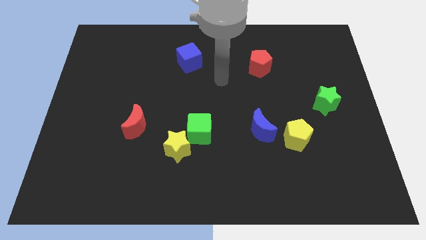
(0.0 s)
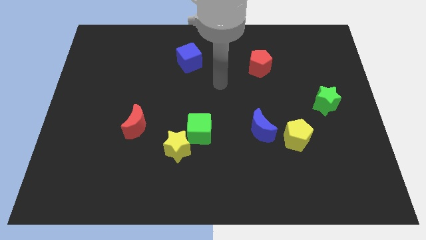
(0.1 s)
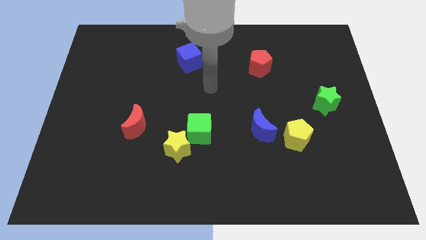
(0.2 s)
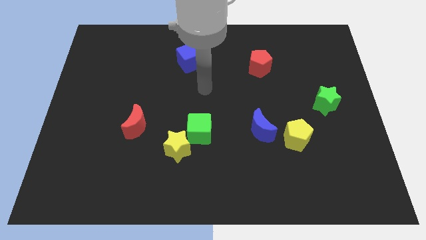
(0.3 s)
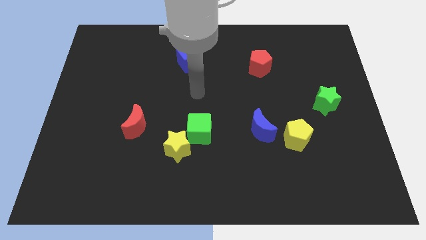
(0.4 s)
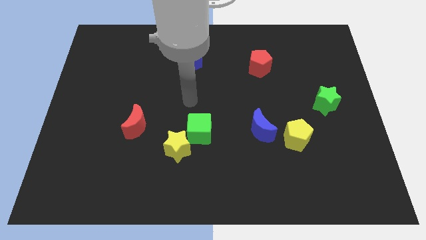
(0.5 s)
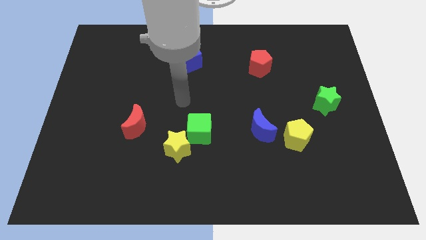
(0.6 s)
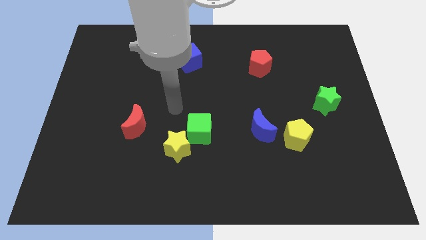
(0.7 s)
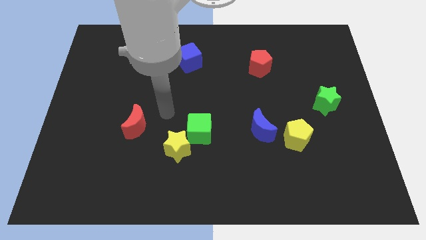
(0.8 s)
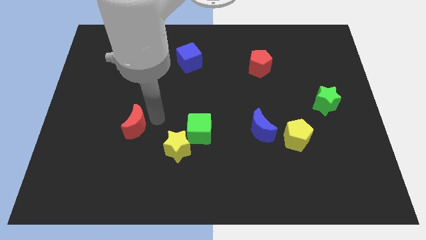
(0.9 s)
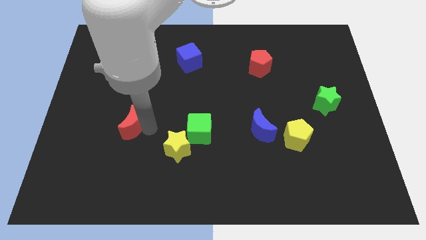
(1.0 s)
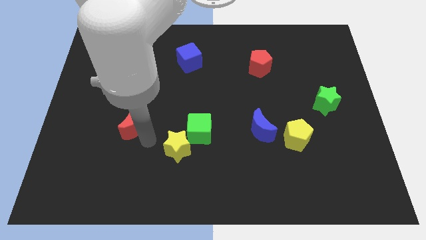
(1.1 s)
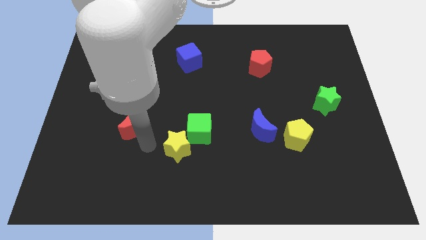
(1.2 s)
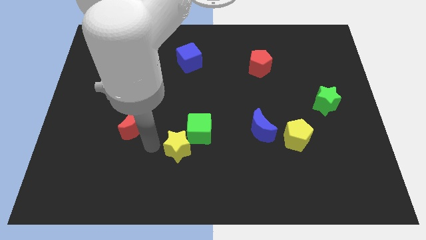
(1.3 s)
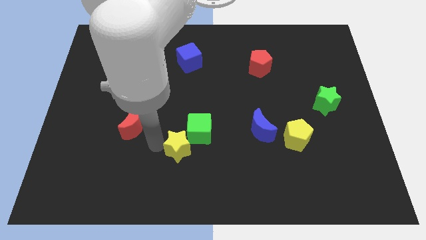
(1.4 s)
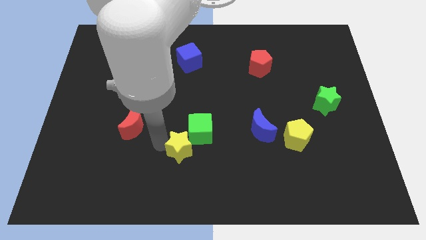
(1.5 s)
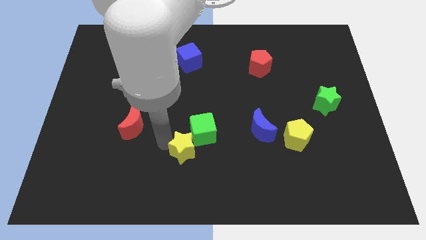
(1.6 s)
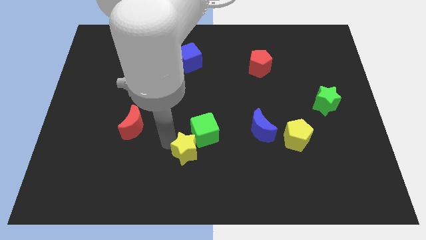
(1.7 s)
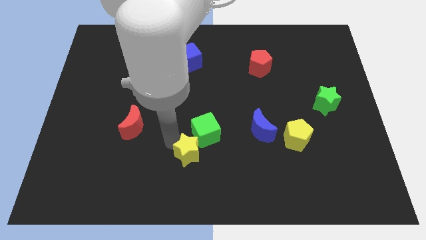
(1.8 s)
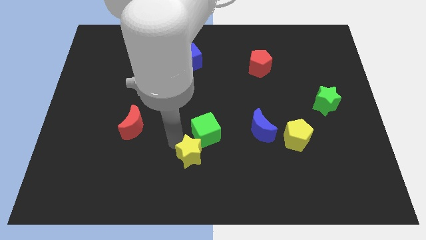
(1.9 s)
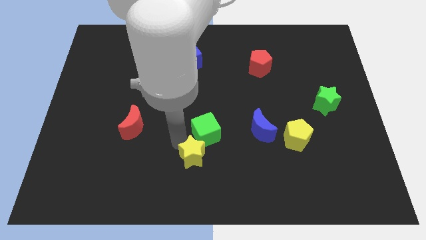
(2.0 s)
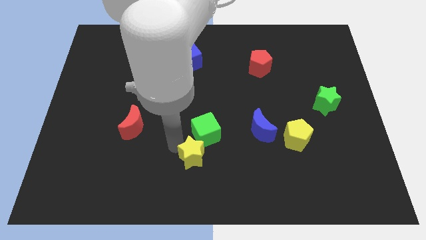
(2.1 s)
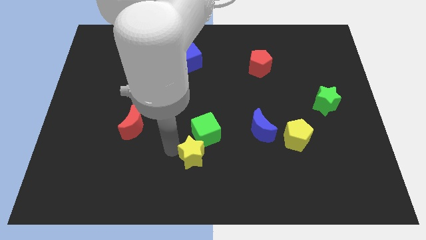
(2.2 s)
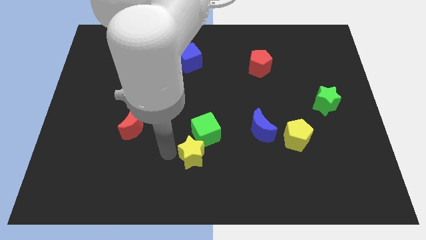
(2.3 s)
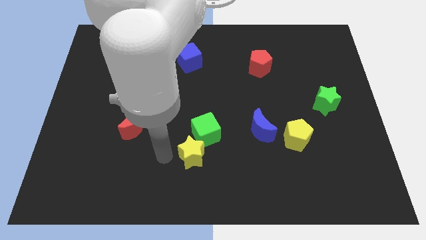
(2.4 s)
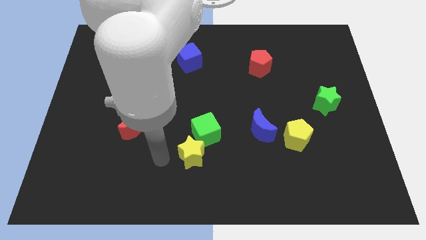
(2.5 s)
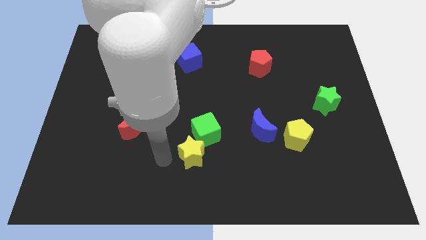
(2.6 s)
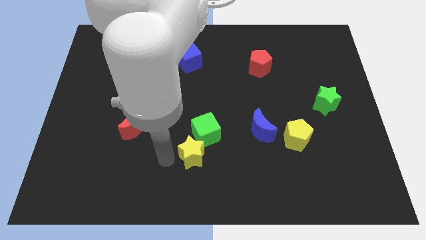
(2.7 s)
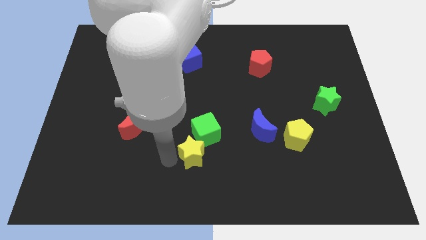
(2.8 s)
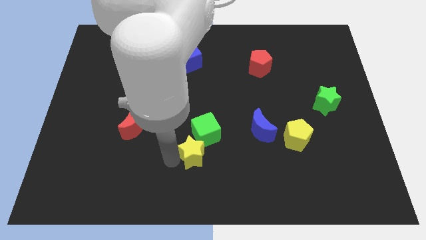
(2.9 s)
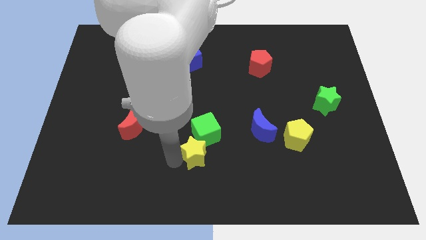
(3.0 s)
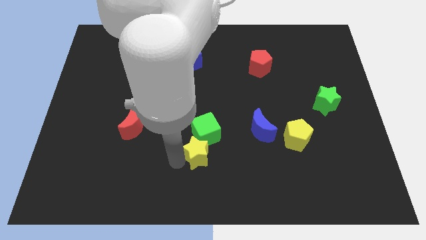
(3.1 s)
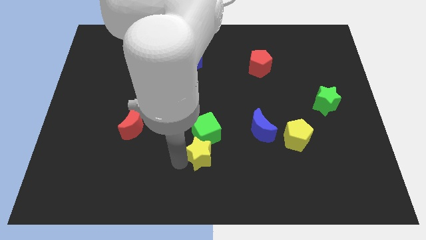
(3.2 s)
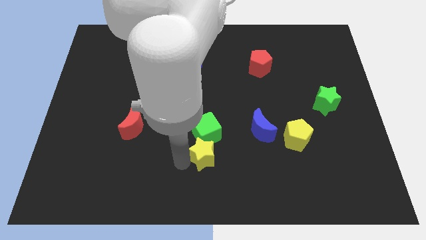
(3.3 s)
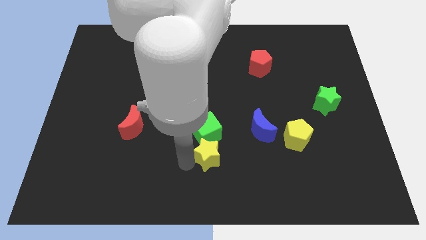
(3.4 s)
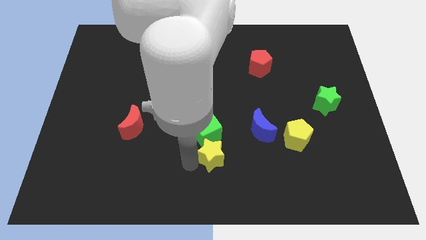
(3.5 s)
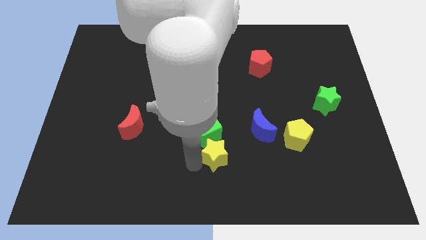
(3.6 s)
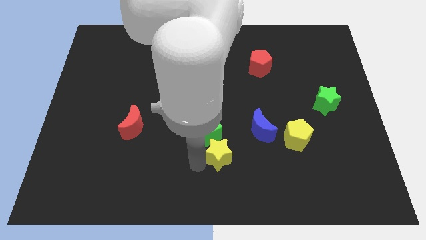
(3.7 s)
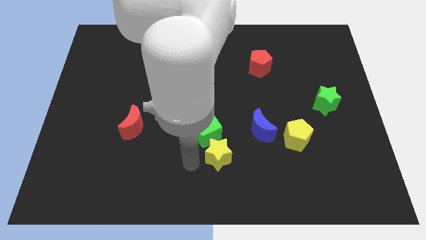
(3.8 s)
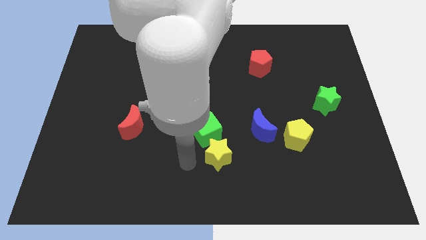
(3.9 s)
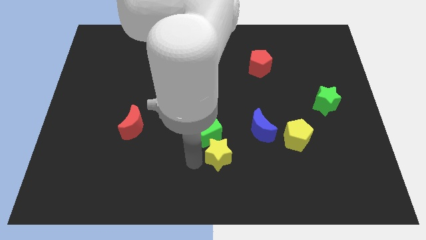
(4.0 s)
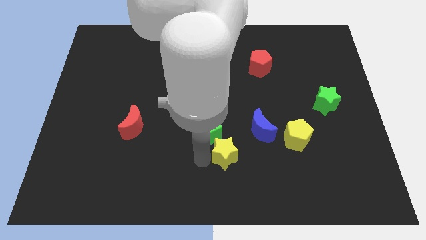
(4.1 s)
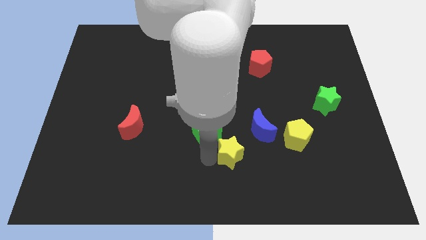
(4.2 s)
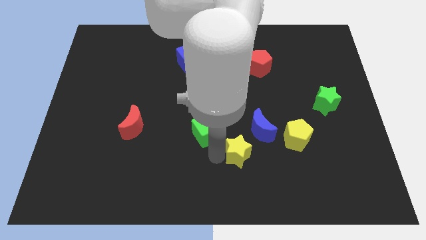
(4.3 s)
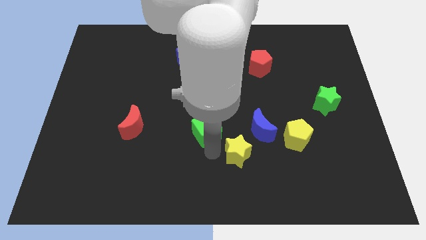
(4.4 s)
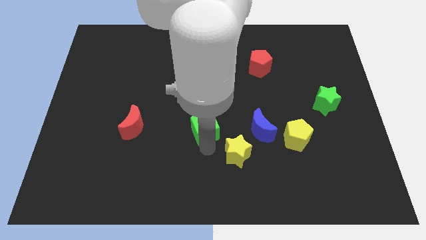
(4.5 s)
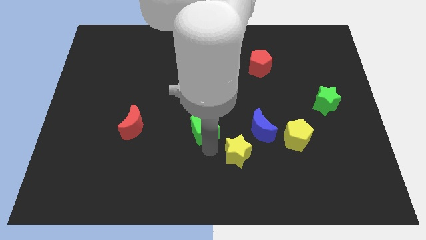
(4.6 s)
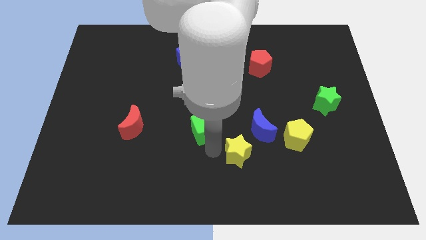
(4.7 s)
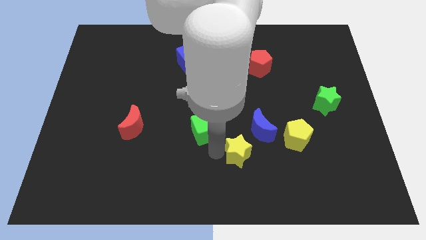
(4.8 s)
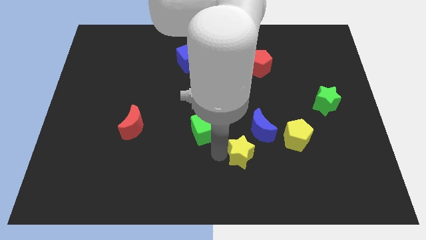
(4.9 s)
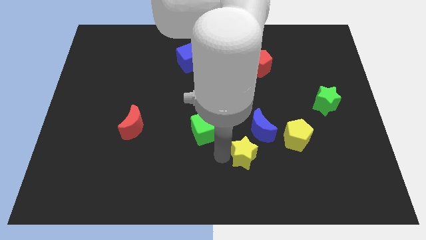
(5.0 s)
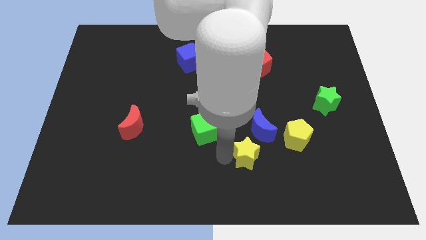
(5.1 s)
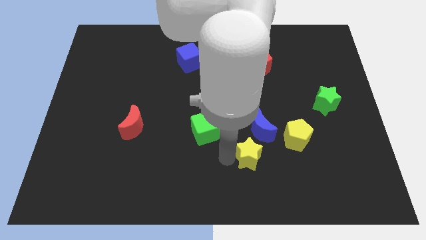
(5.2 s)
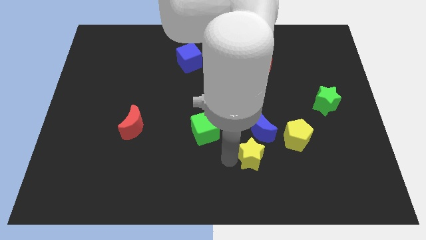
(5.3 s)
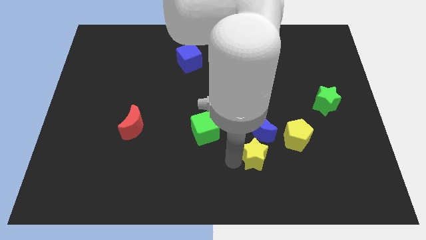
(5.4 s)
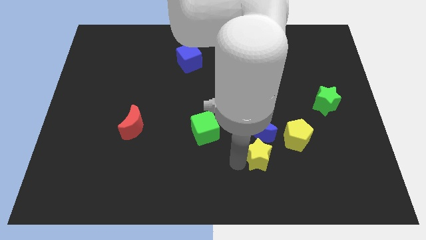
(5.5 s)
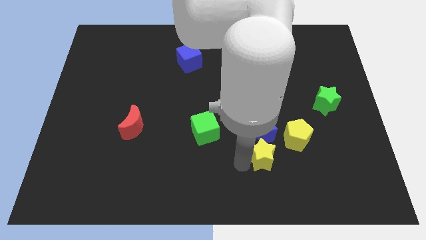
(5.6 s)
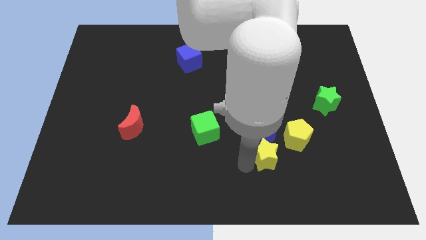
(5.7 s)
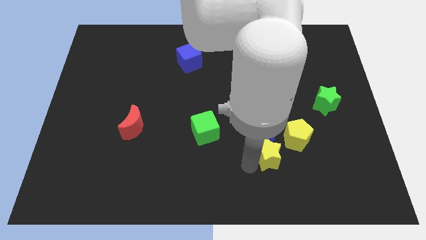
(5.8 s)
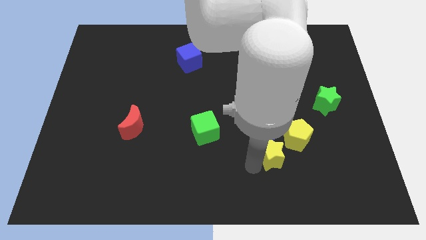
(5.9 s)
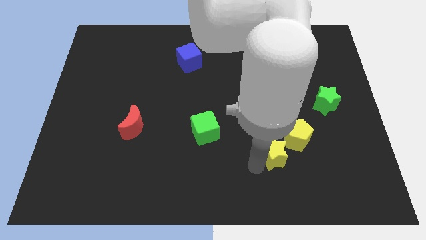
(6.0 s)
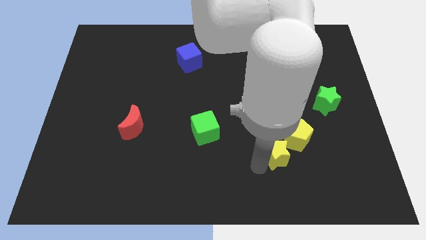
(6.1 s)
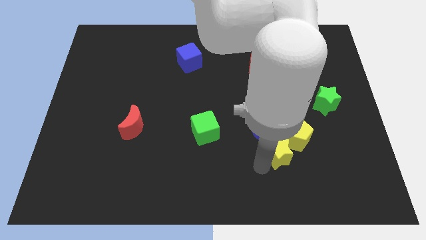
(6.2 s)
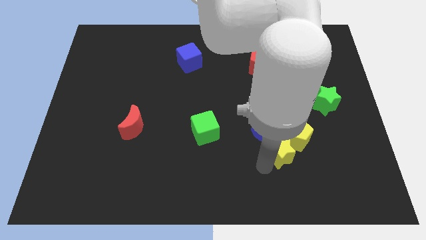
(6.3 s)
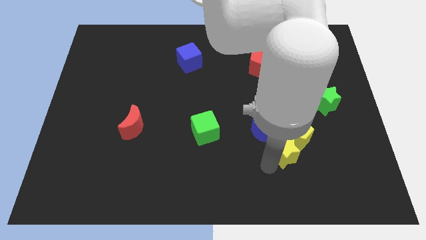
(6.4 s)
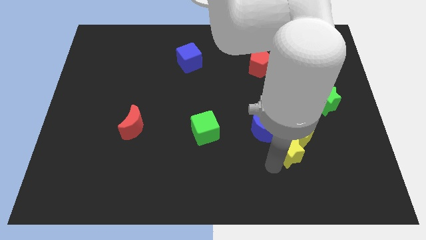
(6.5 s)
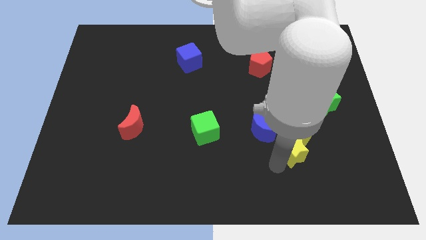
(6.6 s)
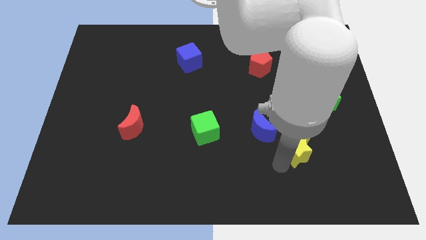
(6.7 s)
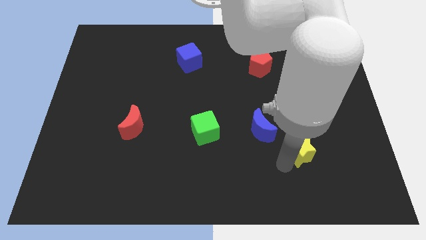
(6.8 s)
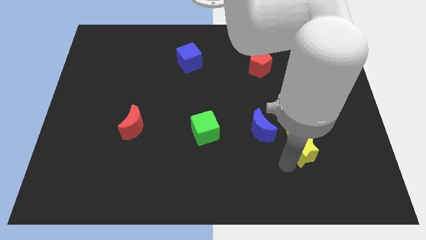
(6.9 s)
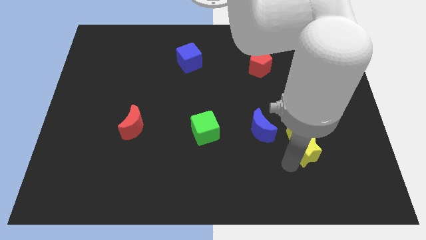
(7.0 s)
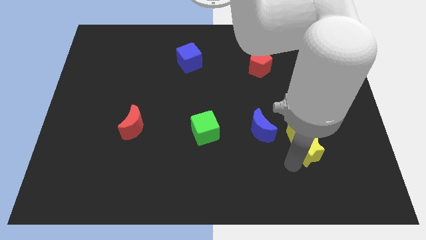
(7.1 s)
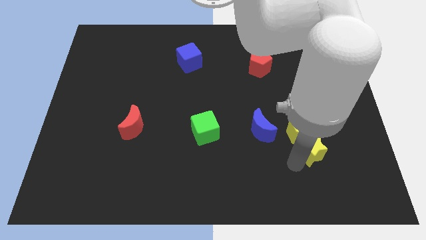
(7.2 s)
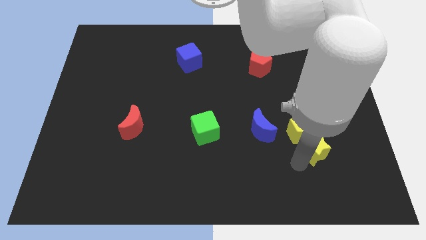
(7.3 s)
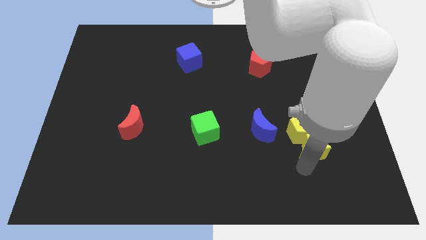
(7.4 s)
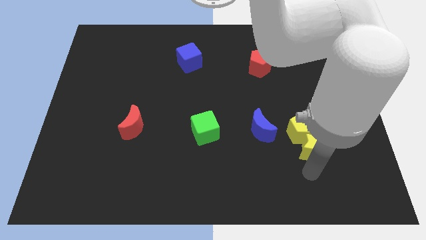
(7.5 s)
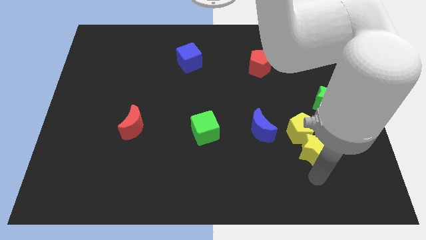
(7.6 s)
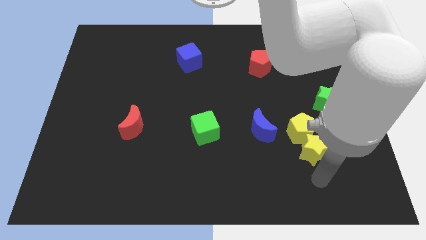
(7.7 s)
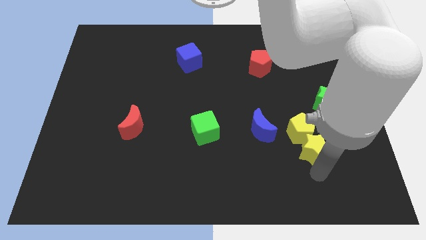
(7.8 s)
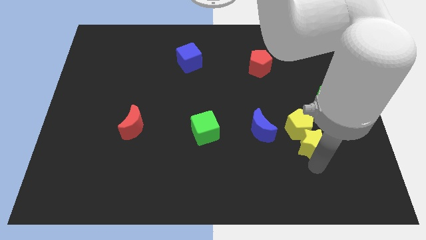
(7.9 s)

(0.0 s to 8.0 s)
push the yellow star to the right of the blue moon
